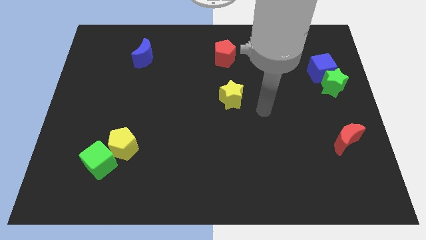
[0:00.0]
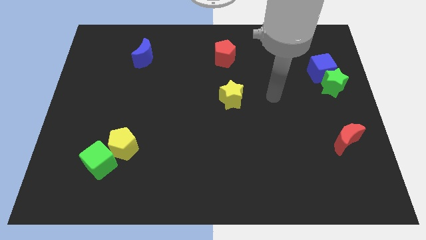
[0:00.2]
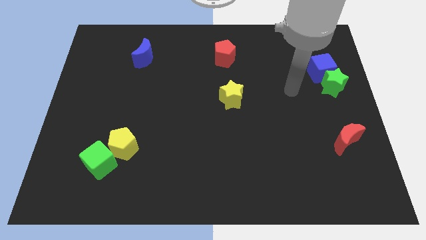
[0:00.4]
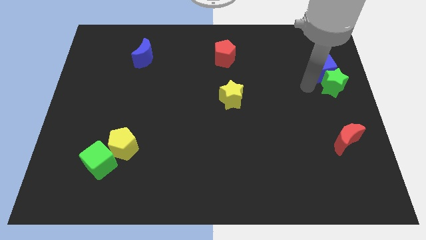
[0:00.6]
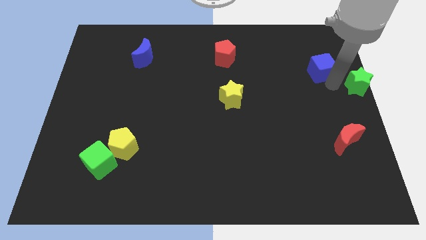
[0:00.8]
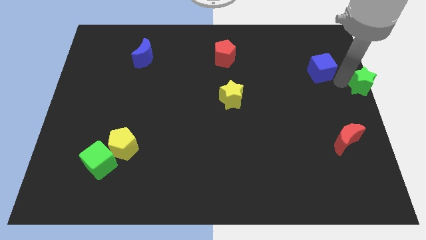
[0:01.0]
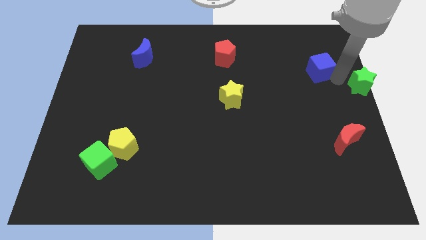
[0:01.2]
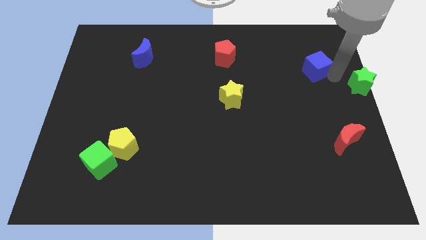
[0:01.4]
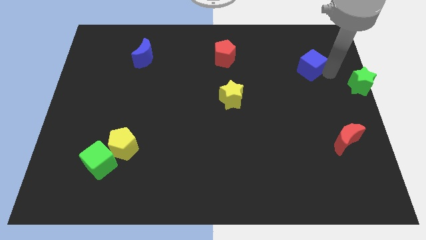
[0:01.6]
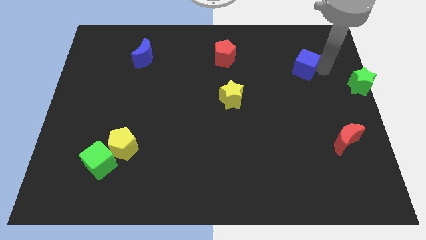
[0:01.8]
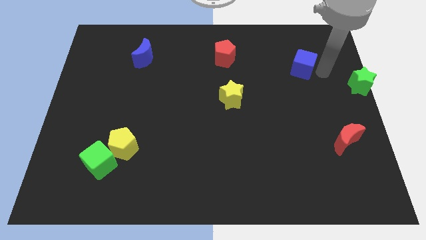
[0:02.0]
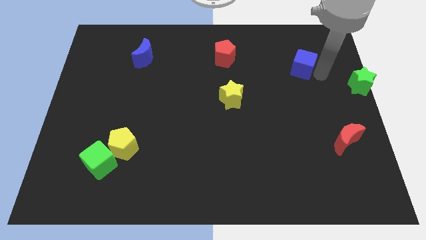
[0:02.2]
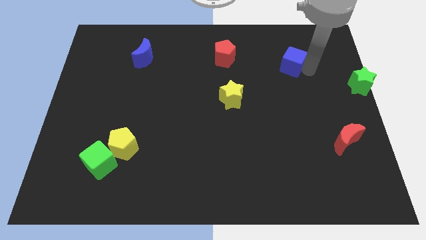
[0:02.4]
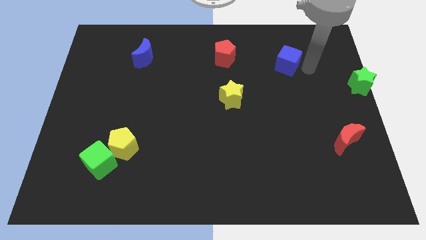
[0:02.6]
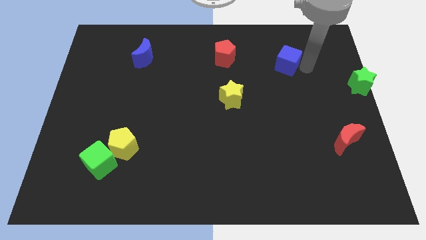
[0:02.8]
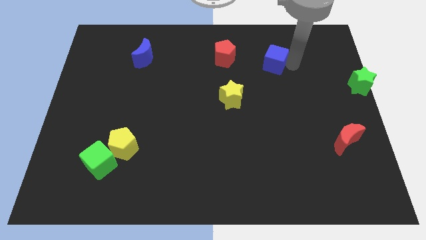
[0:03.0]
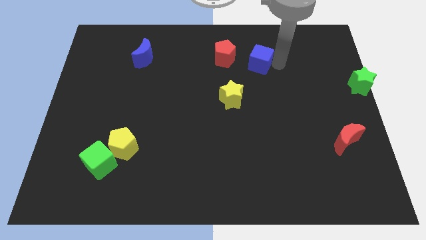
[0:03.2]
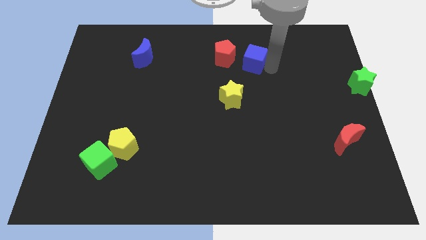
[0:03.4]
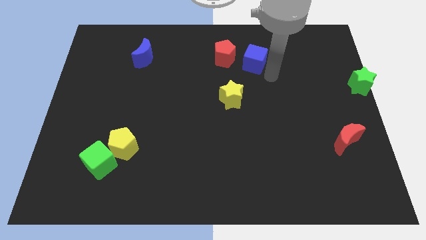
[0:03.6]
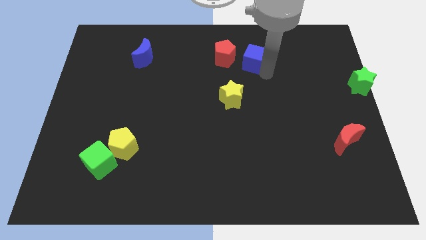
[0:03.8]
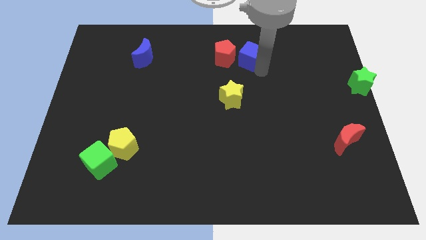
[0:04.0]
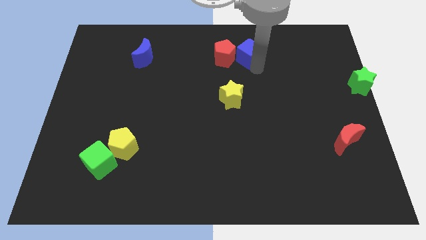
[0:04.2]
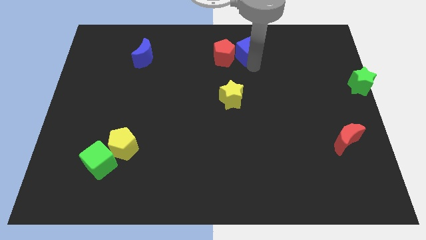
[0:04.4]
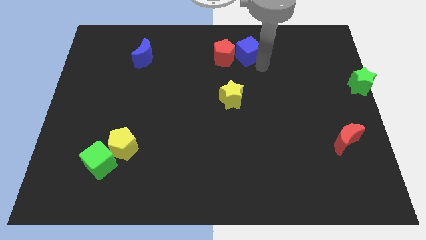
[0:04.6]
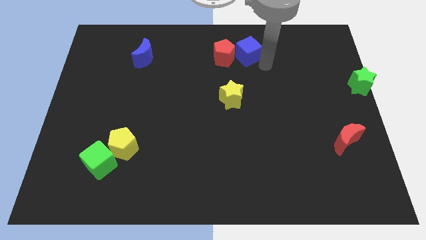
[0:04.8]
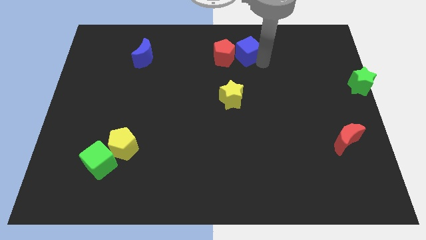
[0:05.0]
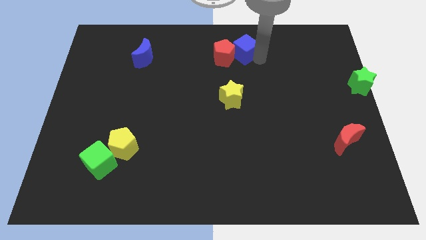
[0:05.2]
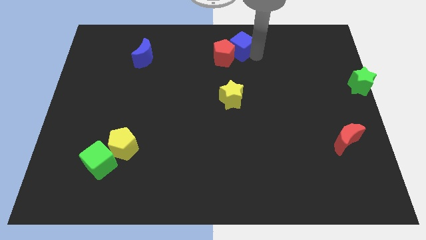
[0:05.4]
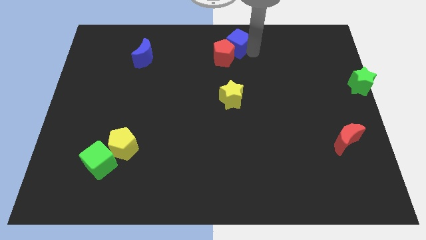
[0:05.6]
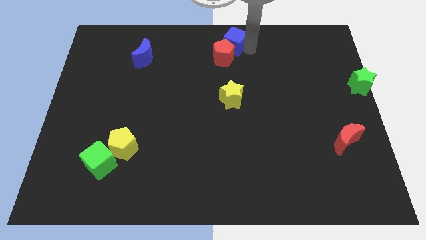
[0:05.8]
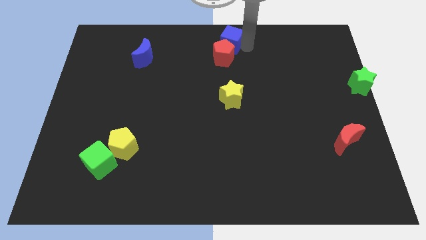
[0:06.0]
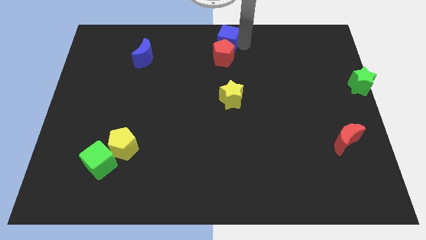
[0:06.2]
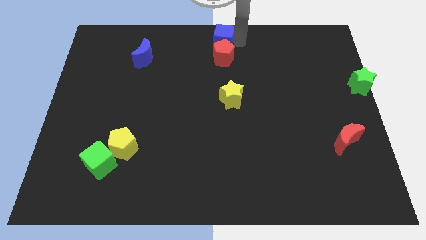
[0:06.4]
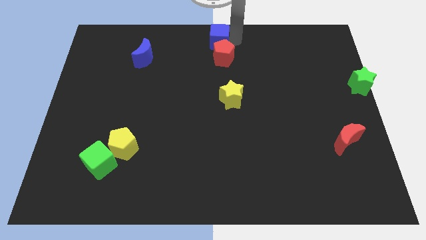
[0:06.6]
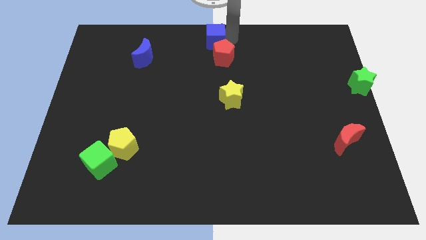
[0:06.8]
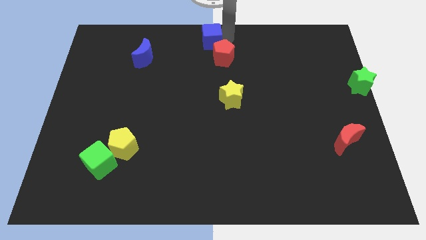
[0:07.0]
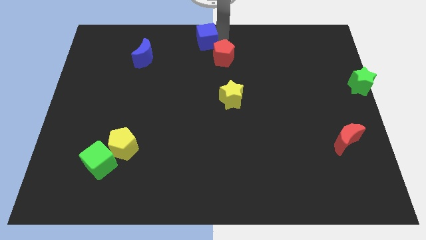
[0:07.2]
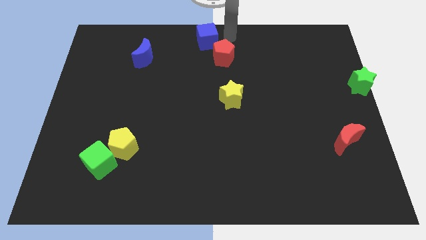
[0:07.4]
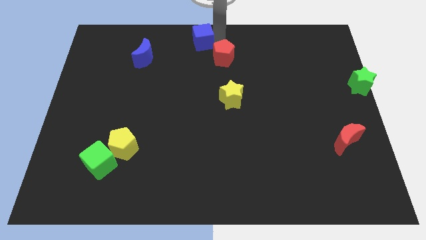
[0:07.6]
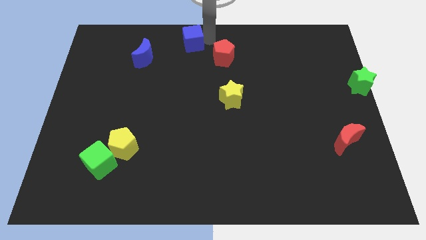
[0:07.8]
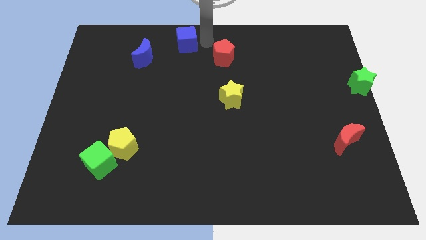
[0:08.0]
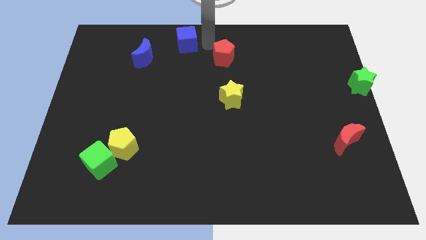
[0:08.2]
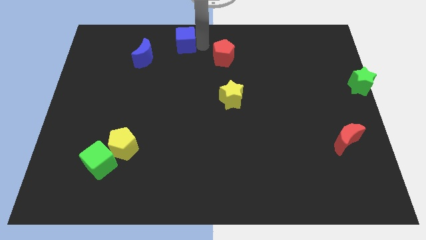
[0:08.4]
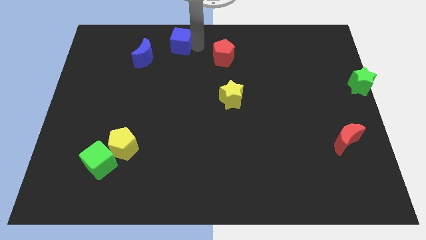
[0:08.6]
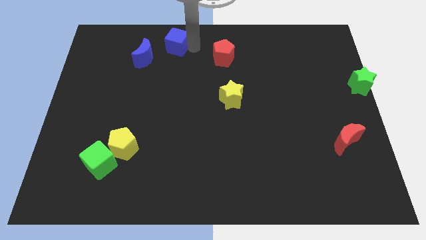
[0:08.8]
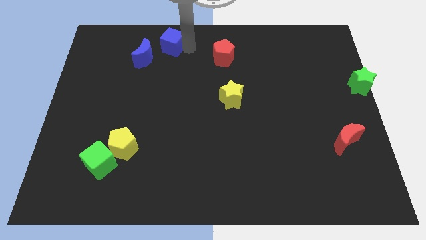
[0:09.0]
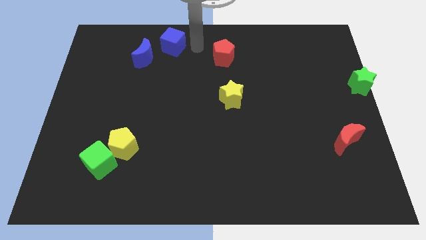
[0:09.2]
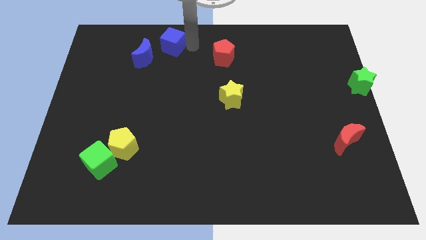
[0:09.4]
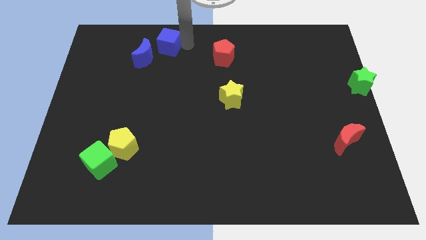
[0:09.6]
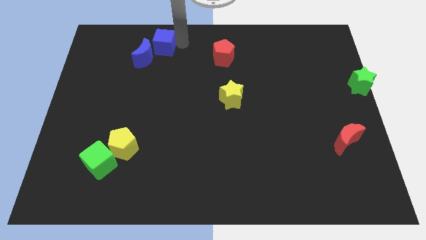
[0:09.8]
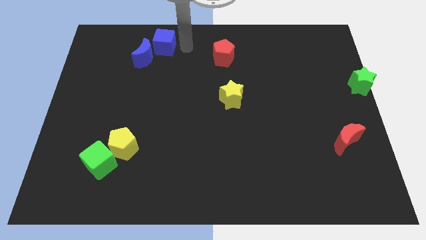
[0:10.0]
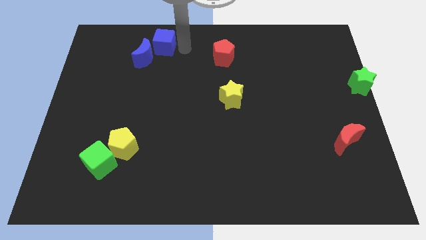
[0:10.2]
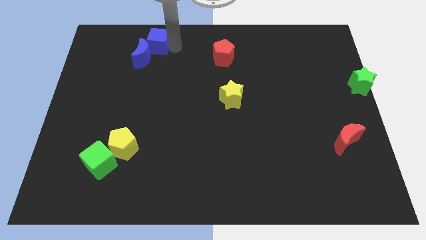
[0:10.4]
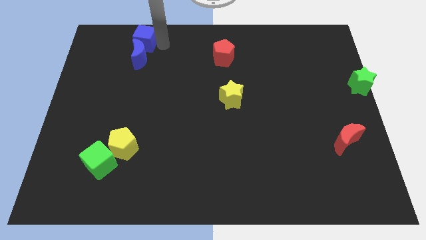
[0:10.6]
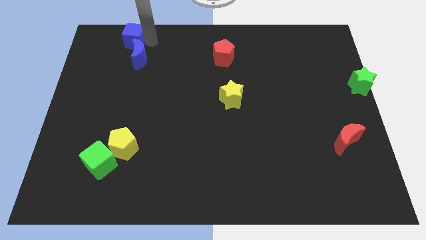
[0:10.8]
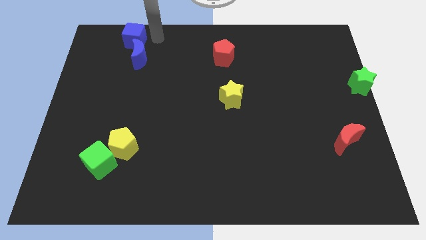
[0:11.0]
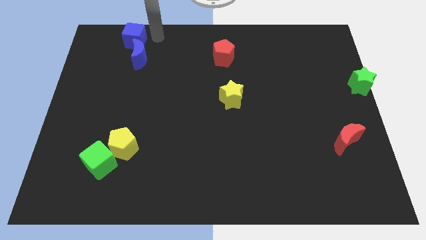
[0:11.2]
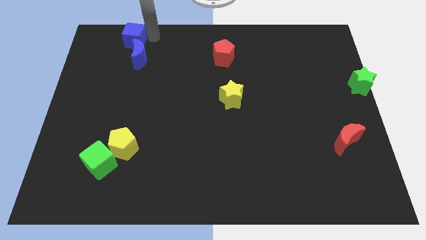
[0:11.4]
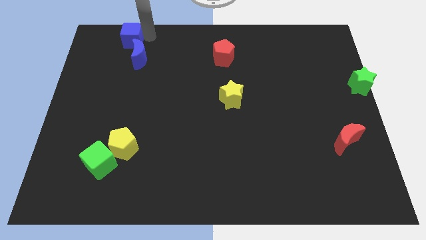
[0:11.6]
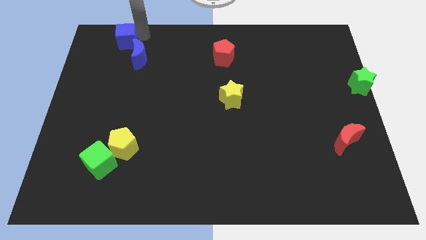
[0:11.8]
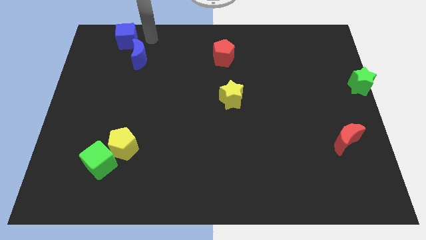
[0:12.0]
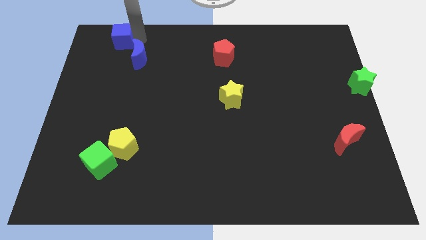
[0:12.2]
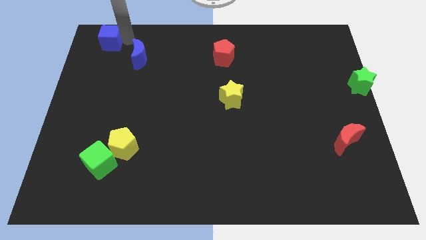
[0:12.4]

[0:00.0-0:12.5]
put the blue cube to the top left of the board

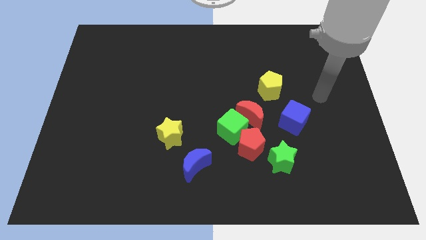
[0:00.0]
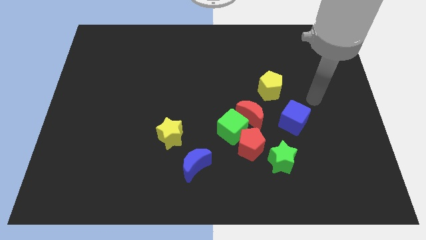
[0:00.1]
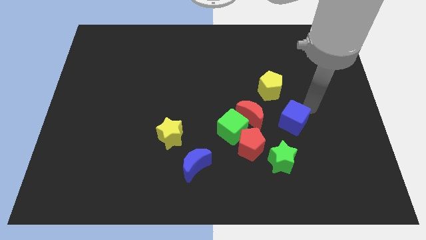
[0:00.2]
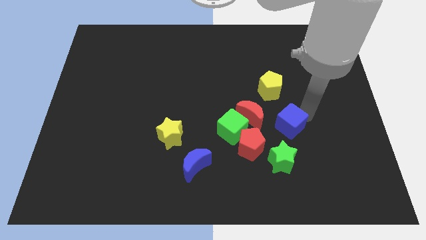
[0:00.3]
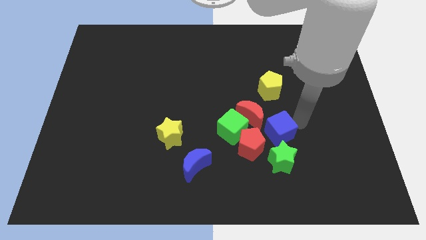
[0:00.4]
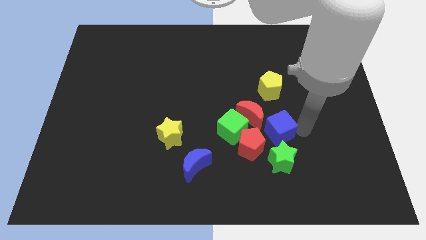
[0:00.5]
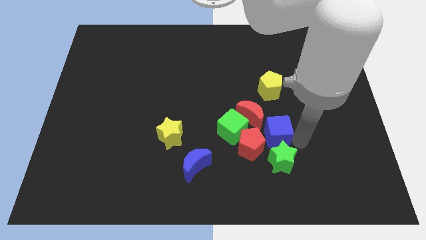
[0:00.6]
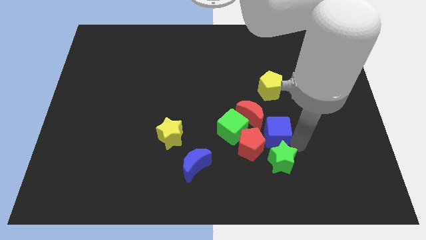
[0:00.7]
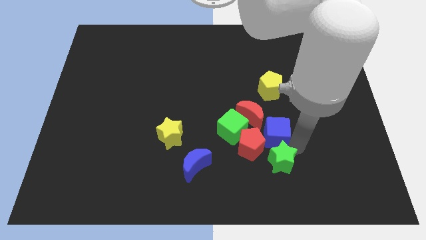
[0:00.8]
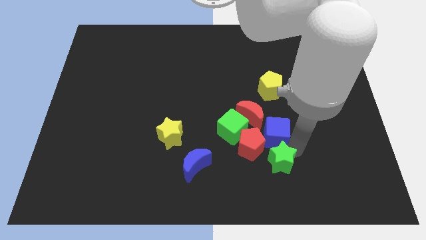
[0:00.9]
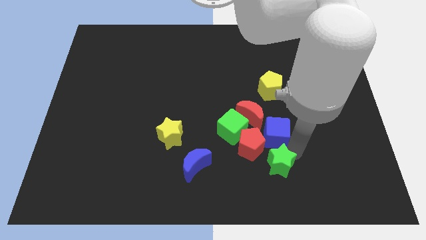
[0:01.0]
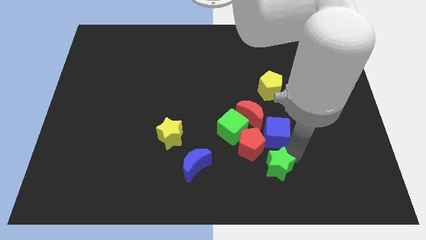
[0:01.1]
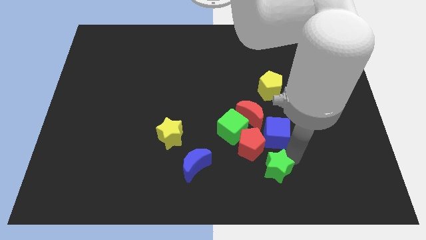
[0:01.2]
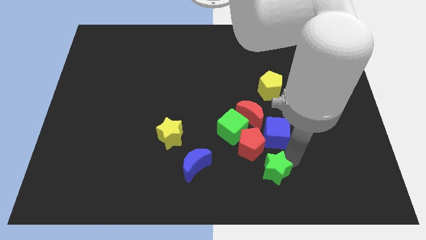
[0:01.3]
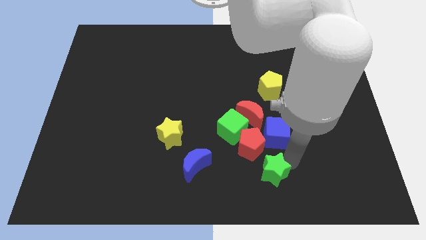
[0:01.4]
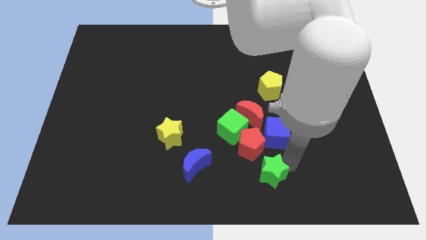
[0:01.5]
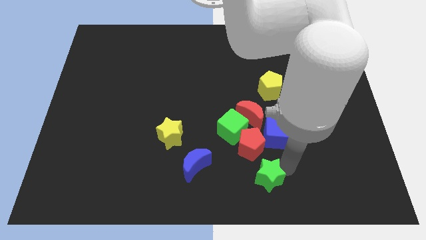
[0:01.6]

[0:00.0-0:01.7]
slide the green star to the bottom side
